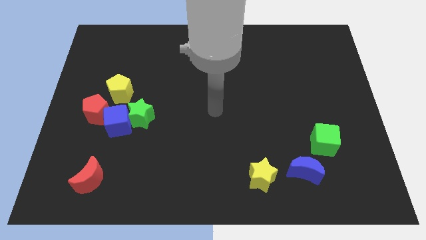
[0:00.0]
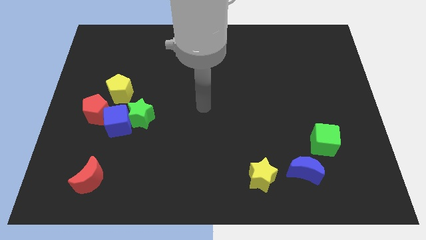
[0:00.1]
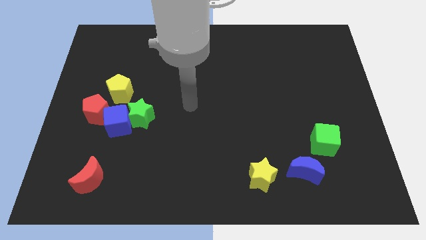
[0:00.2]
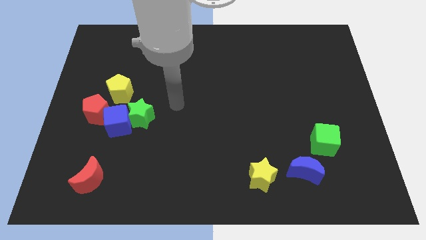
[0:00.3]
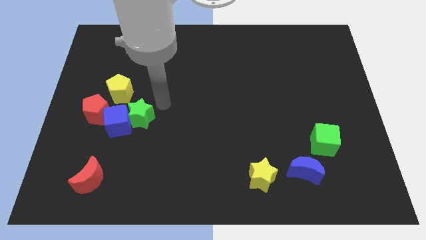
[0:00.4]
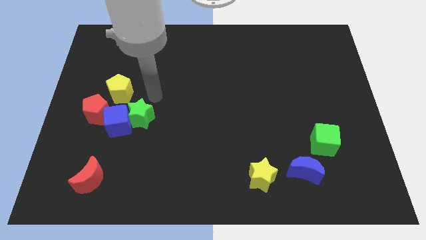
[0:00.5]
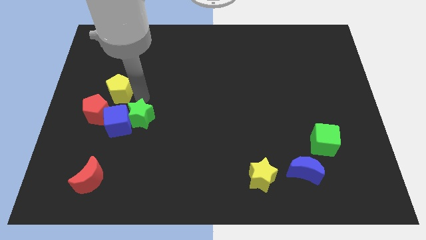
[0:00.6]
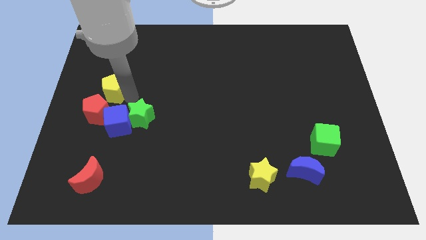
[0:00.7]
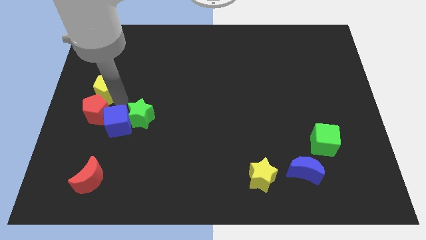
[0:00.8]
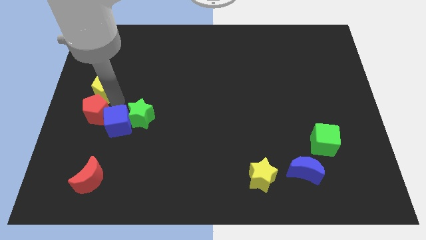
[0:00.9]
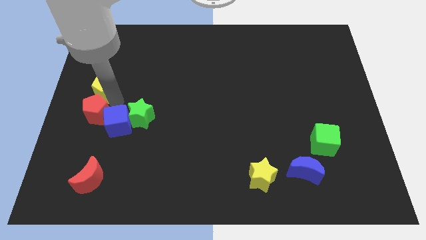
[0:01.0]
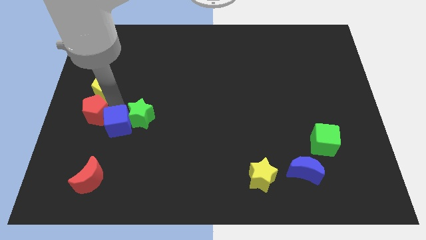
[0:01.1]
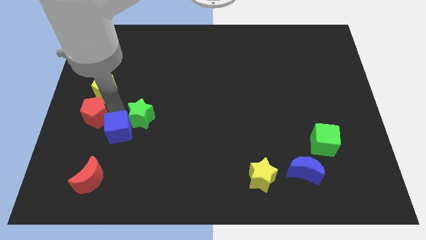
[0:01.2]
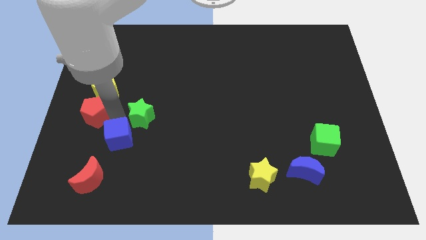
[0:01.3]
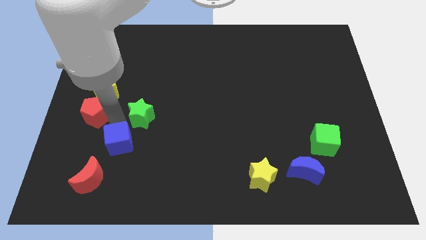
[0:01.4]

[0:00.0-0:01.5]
pull the blue cube apart from the group of blocks

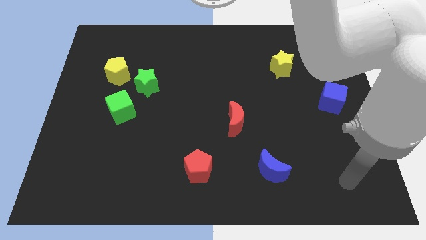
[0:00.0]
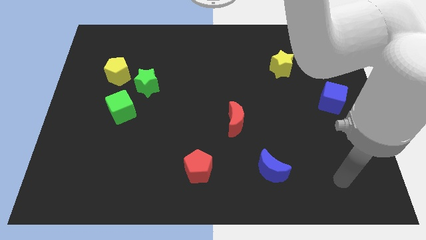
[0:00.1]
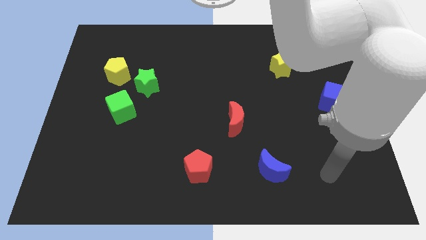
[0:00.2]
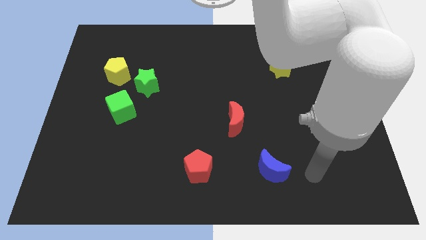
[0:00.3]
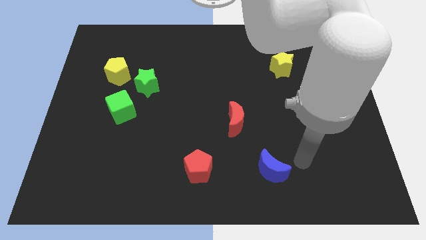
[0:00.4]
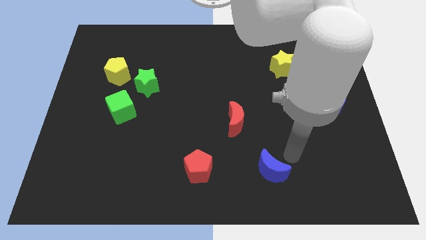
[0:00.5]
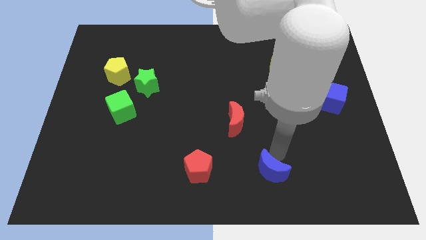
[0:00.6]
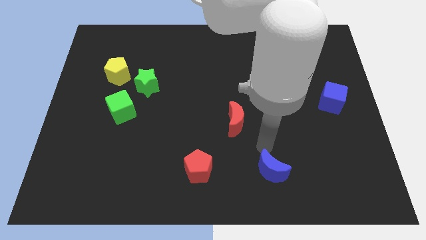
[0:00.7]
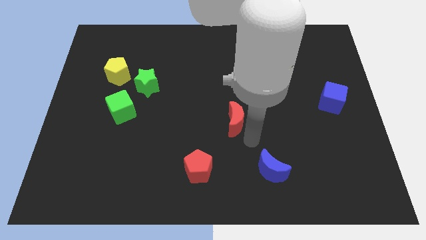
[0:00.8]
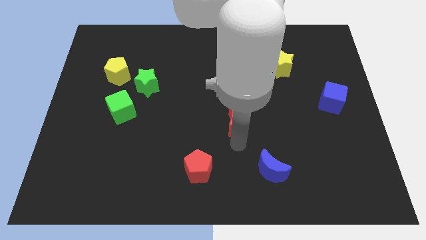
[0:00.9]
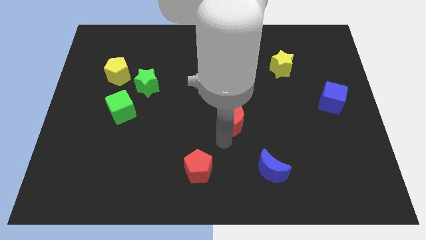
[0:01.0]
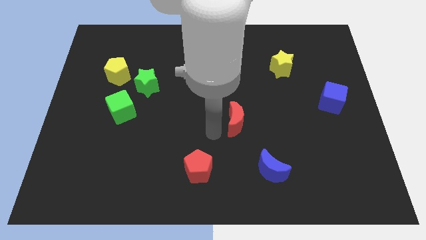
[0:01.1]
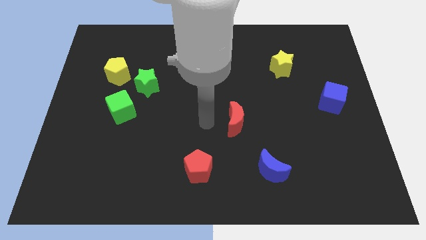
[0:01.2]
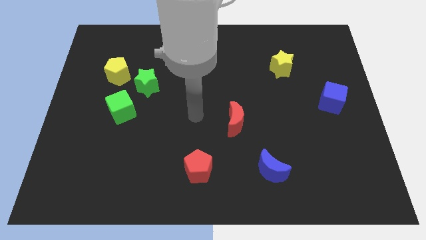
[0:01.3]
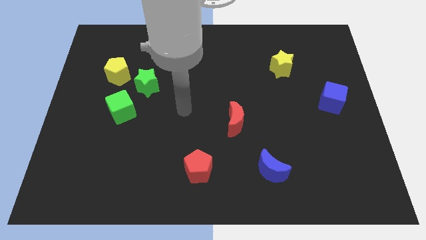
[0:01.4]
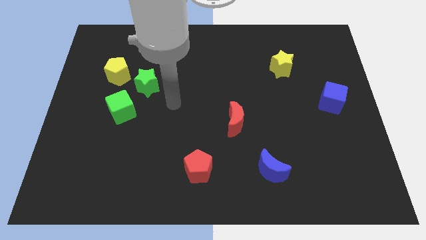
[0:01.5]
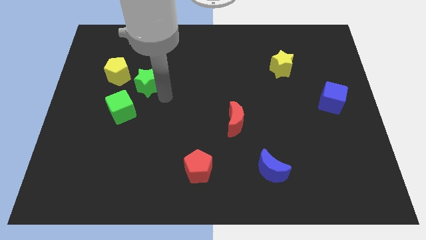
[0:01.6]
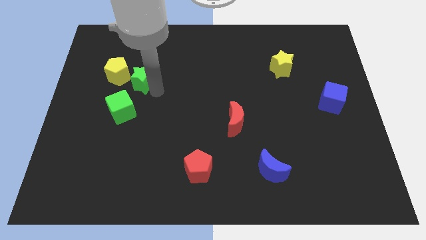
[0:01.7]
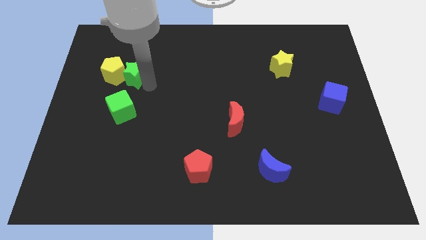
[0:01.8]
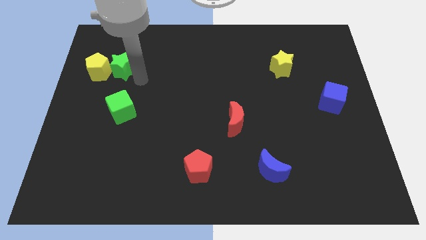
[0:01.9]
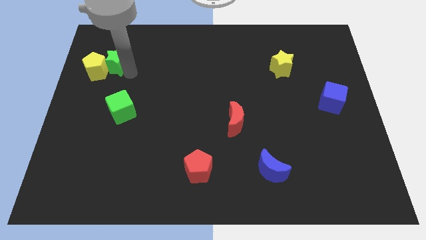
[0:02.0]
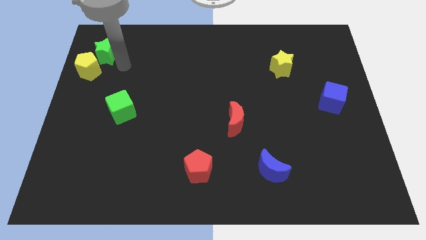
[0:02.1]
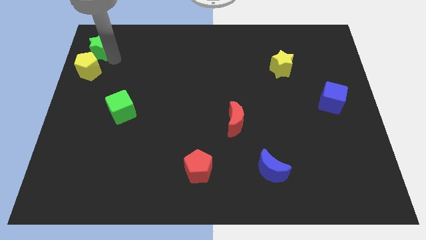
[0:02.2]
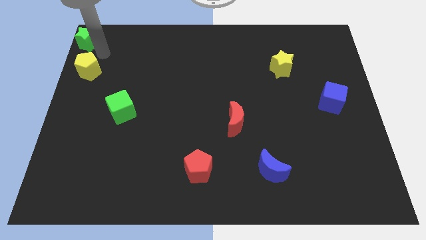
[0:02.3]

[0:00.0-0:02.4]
separate the yellow pentagon from the green star

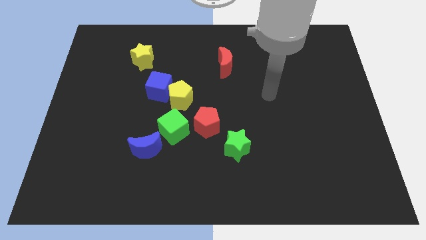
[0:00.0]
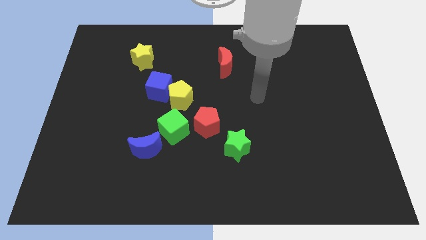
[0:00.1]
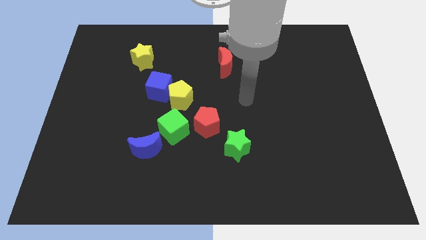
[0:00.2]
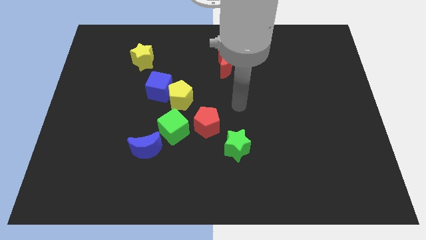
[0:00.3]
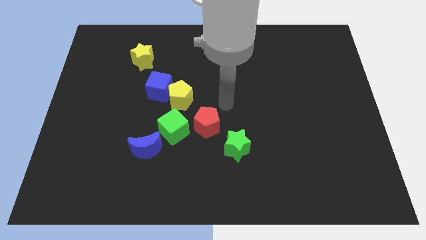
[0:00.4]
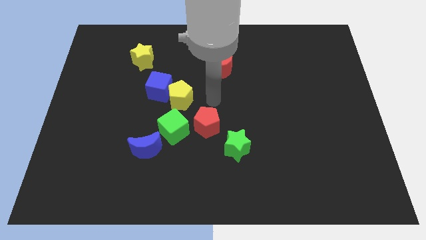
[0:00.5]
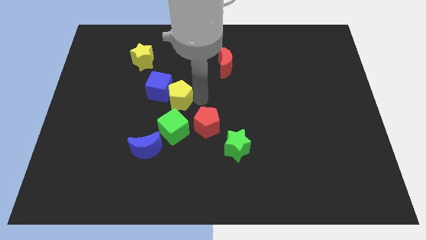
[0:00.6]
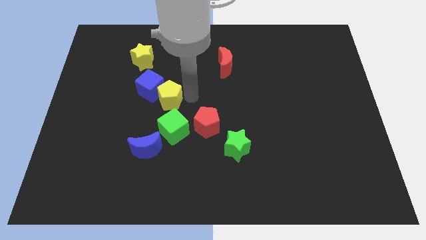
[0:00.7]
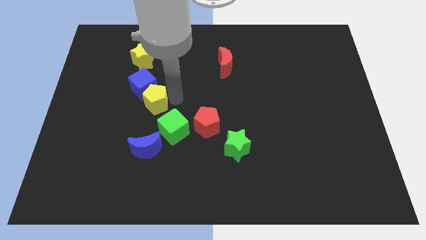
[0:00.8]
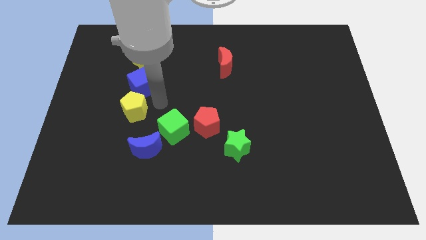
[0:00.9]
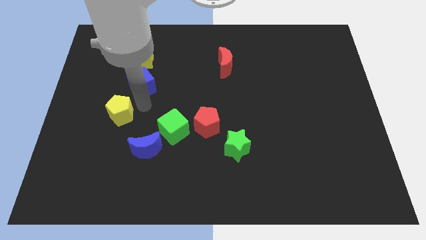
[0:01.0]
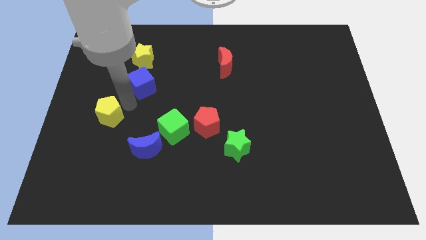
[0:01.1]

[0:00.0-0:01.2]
separate the blue cube from the yellow pentagon

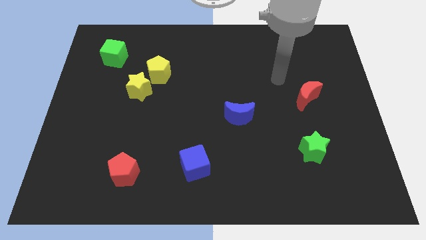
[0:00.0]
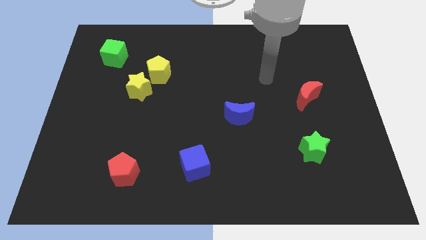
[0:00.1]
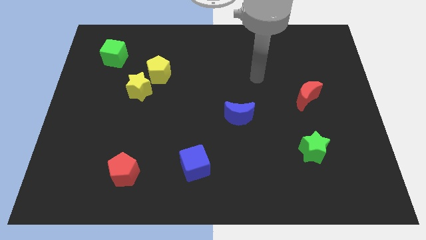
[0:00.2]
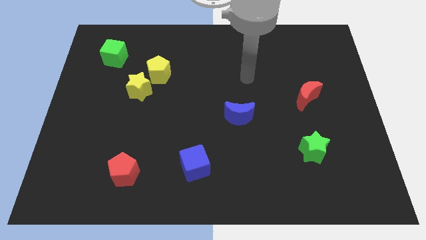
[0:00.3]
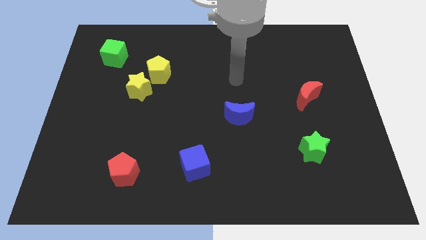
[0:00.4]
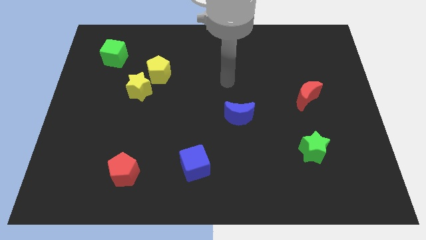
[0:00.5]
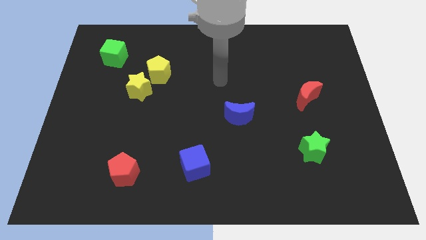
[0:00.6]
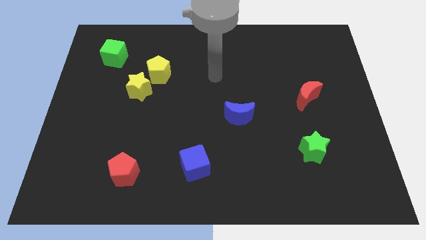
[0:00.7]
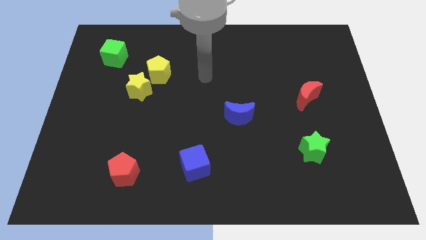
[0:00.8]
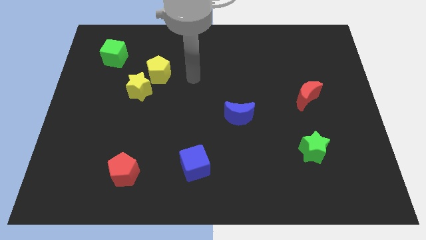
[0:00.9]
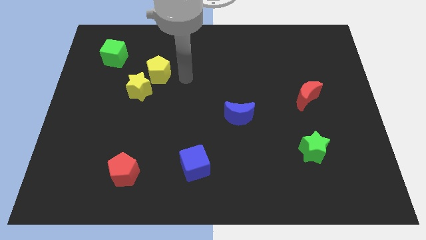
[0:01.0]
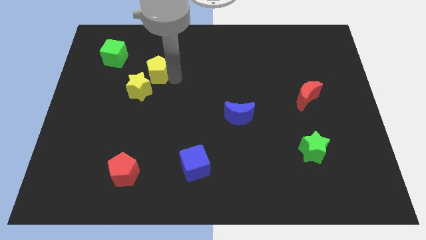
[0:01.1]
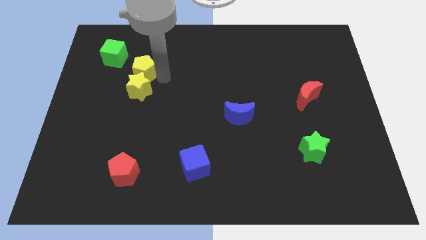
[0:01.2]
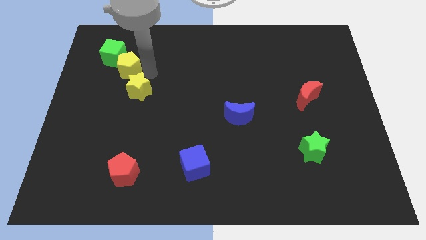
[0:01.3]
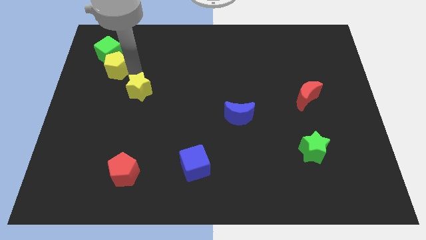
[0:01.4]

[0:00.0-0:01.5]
pull the yellow star apart from the yellow pentagon

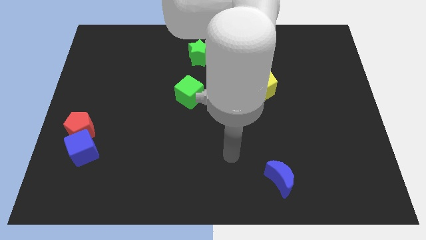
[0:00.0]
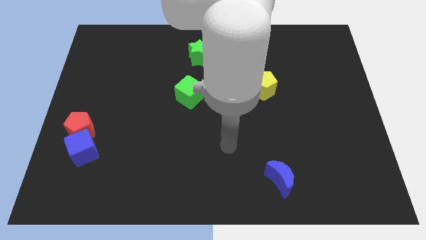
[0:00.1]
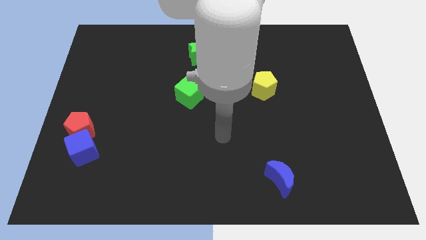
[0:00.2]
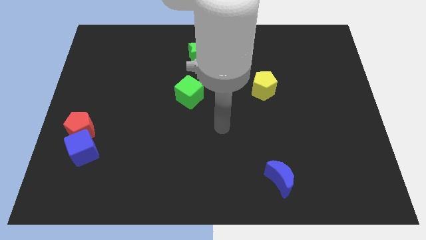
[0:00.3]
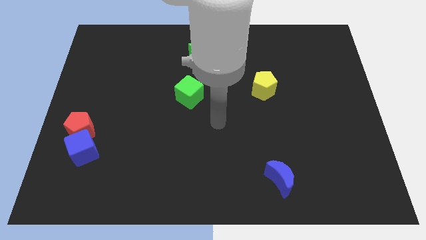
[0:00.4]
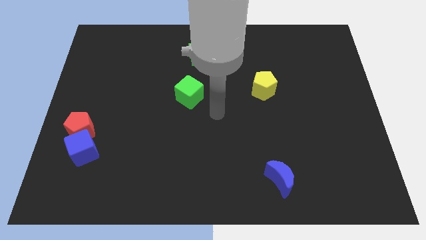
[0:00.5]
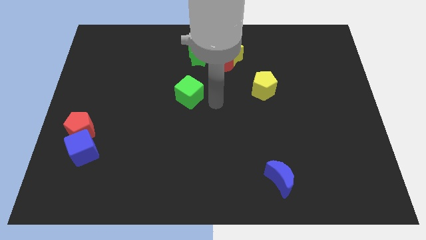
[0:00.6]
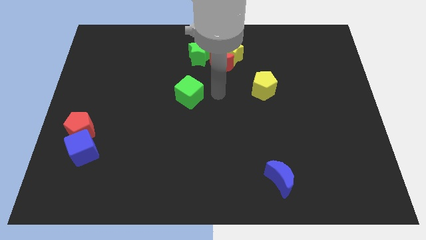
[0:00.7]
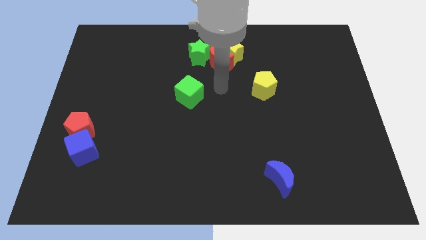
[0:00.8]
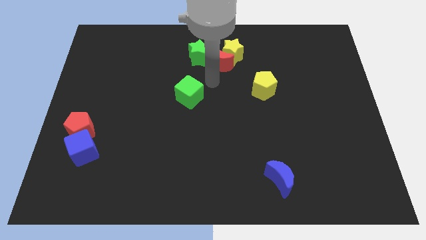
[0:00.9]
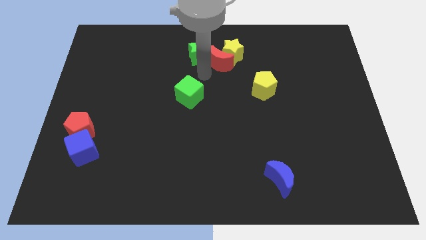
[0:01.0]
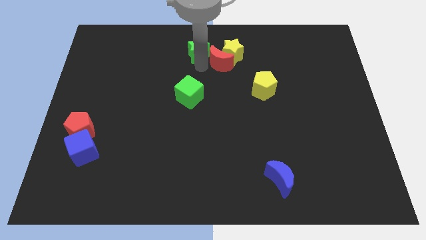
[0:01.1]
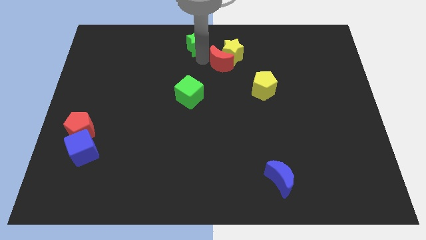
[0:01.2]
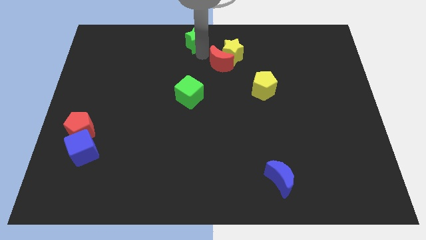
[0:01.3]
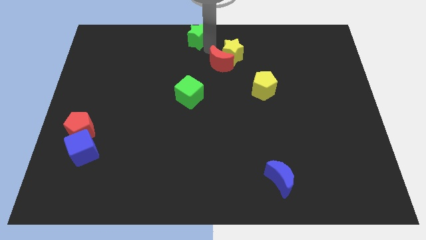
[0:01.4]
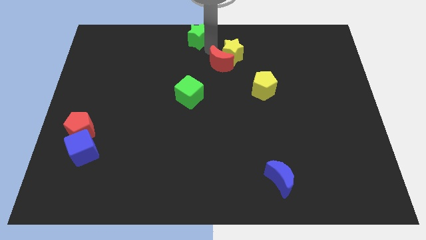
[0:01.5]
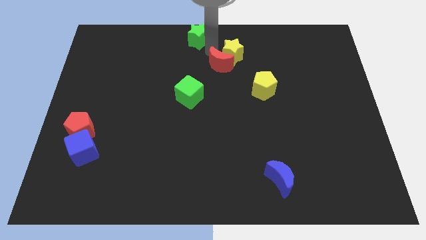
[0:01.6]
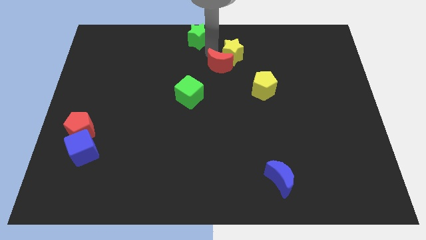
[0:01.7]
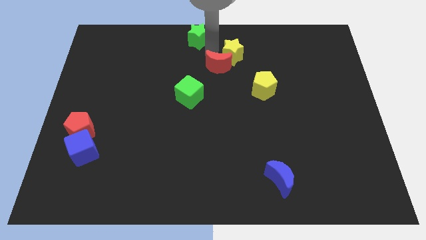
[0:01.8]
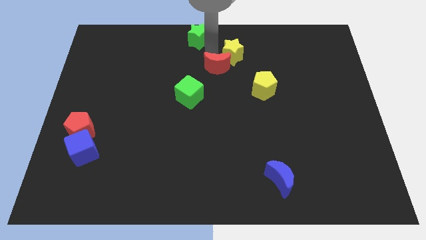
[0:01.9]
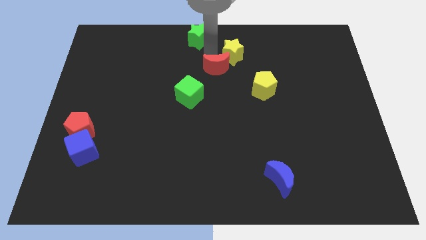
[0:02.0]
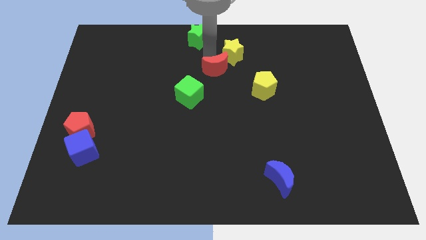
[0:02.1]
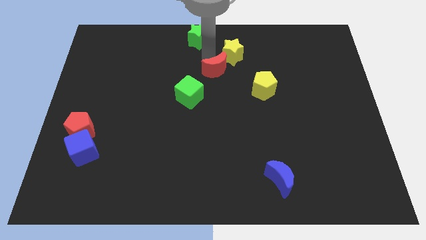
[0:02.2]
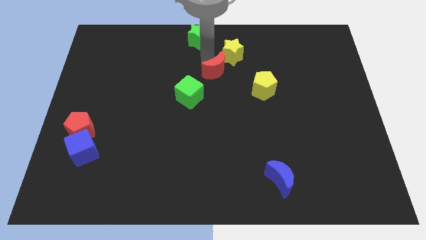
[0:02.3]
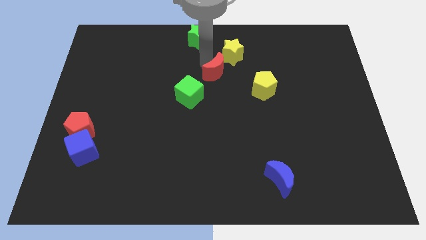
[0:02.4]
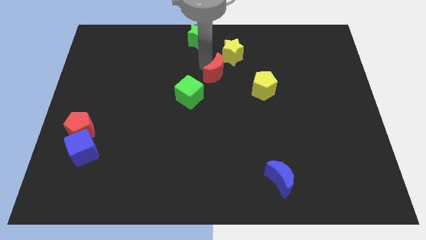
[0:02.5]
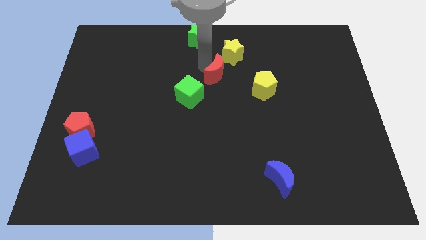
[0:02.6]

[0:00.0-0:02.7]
move the red moon away from the yellow star and green star
